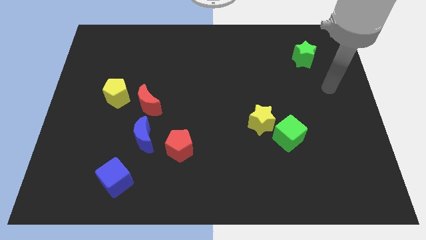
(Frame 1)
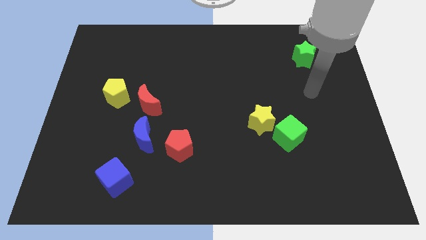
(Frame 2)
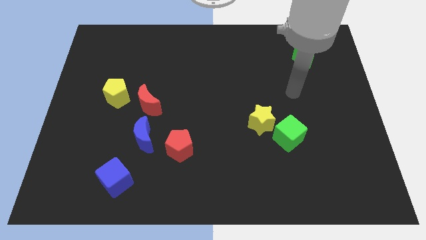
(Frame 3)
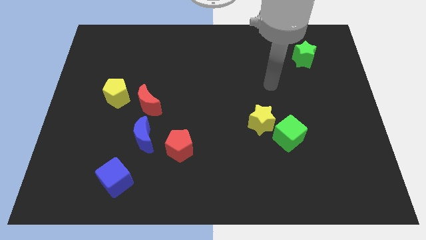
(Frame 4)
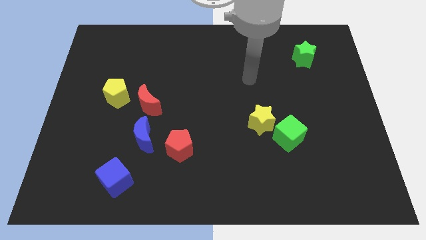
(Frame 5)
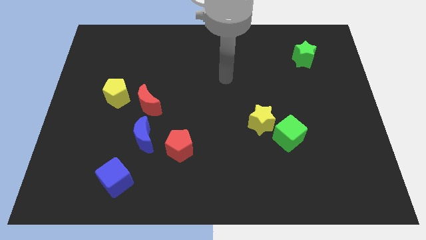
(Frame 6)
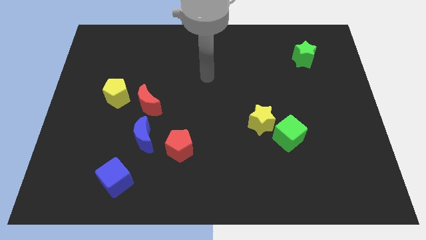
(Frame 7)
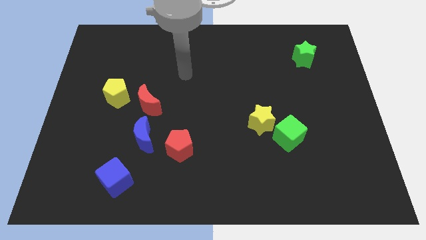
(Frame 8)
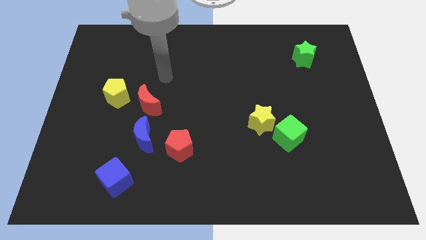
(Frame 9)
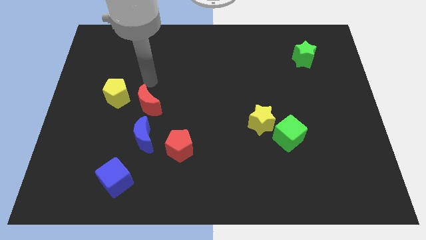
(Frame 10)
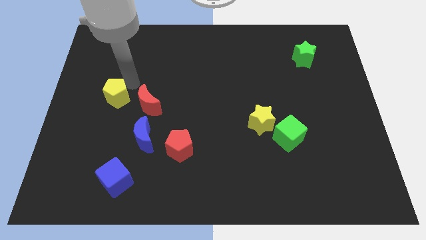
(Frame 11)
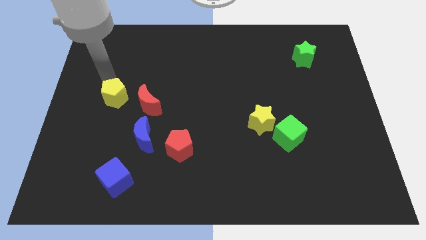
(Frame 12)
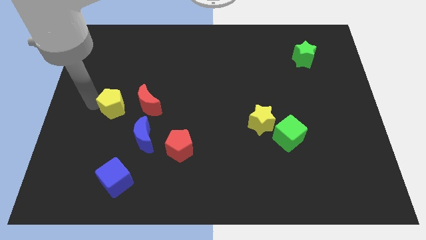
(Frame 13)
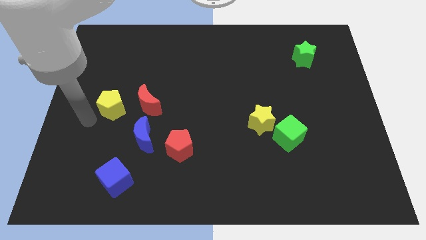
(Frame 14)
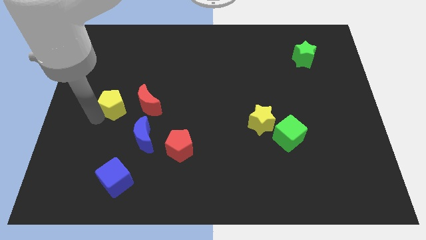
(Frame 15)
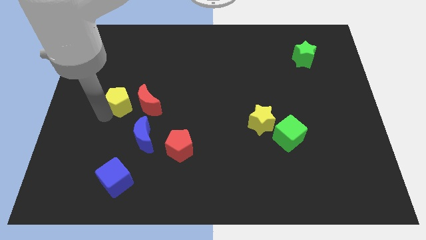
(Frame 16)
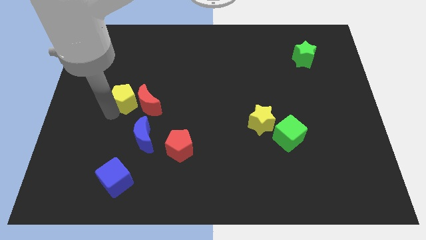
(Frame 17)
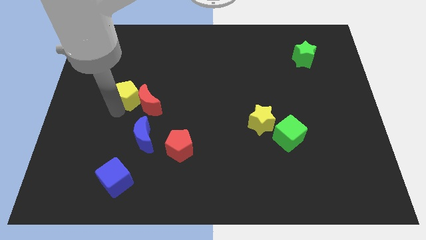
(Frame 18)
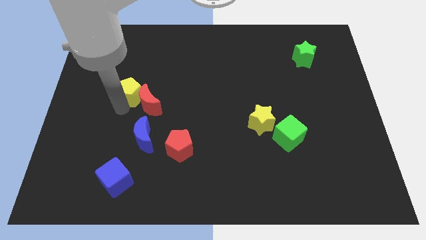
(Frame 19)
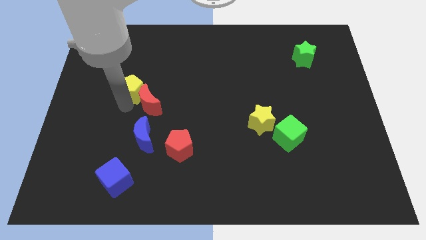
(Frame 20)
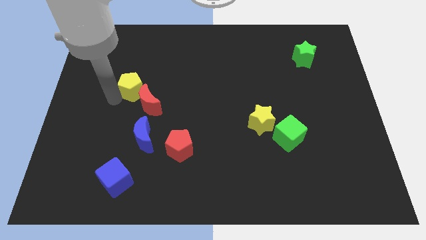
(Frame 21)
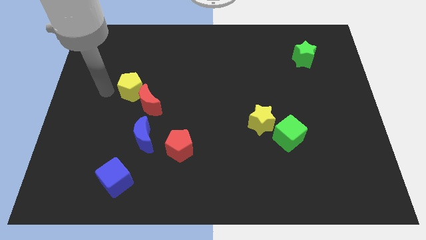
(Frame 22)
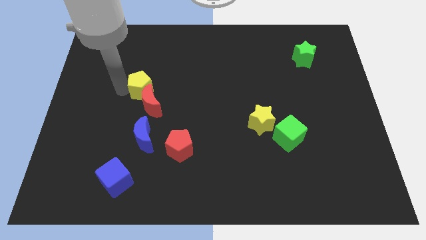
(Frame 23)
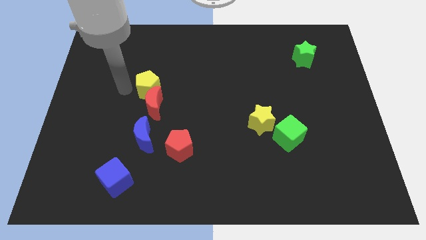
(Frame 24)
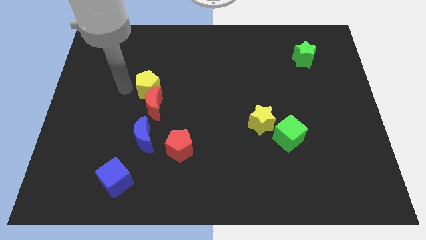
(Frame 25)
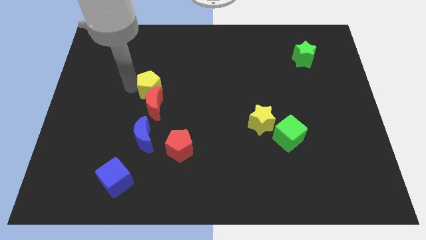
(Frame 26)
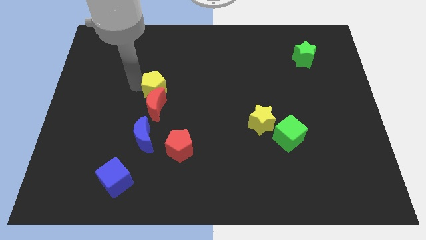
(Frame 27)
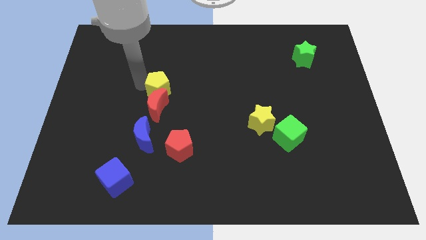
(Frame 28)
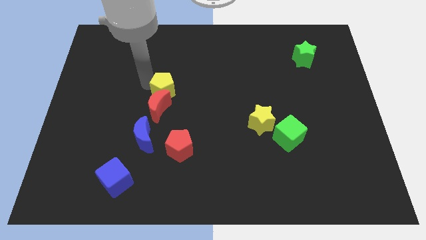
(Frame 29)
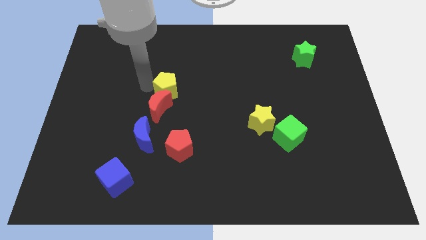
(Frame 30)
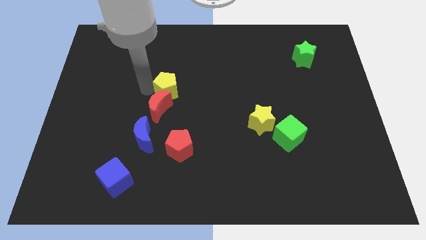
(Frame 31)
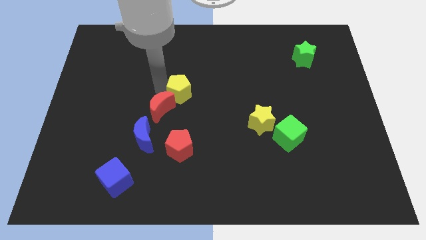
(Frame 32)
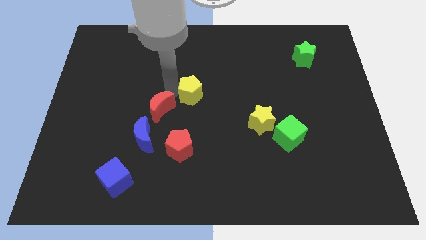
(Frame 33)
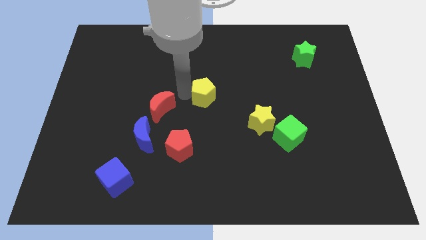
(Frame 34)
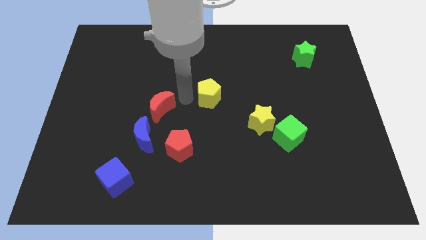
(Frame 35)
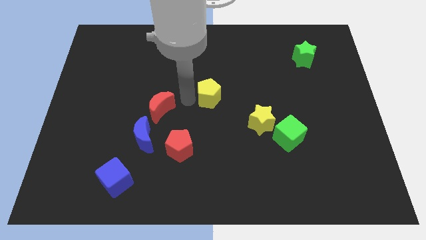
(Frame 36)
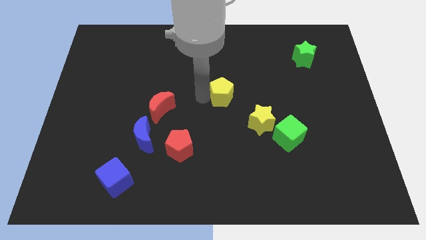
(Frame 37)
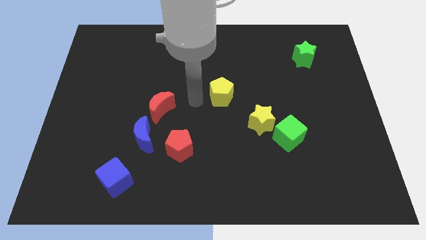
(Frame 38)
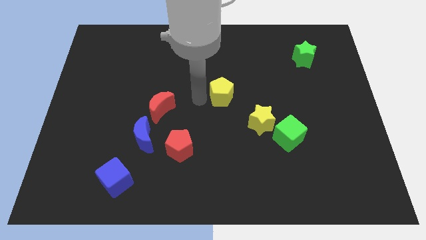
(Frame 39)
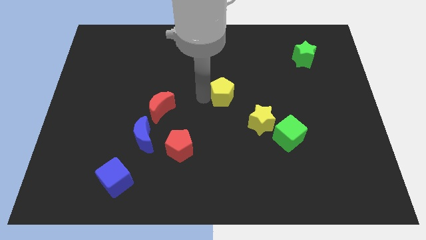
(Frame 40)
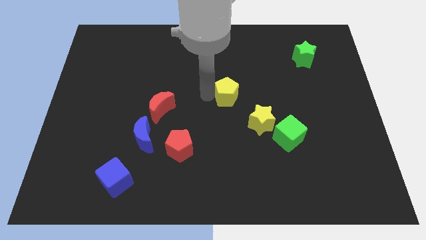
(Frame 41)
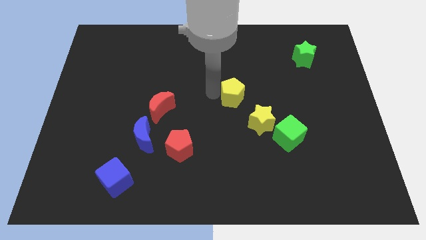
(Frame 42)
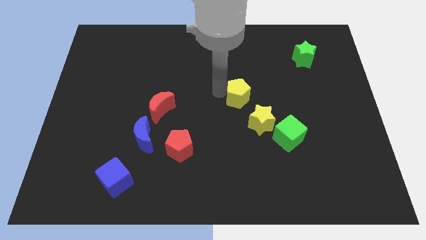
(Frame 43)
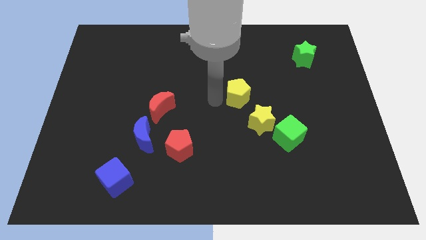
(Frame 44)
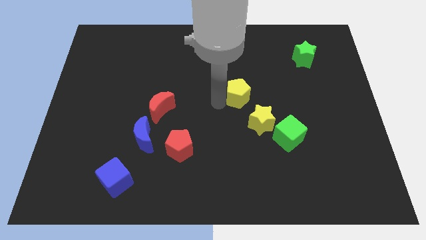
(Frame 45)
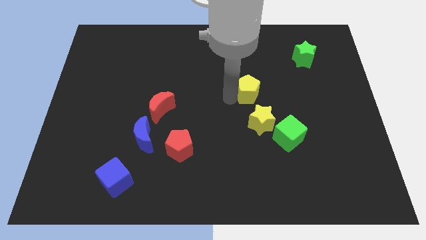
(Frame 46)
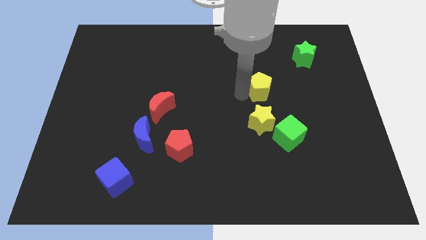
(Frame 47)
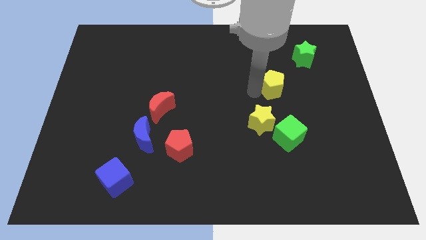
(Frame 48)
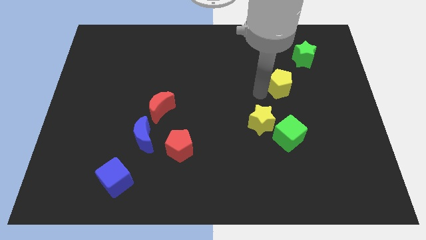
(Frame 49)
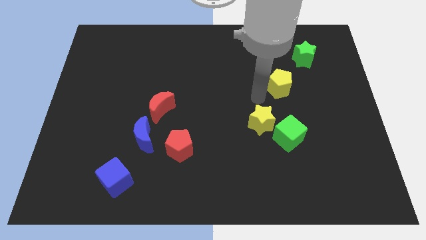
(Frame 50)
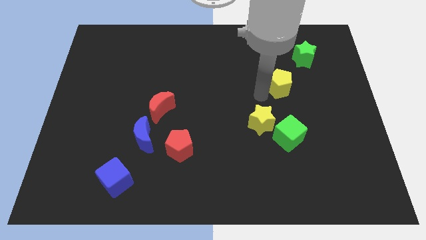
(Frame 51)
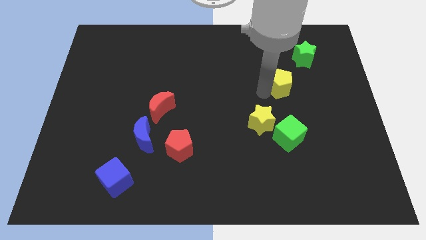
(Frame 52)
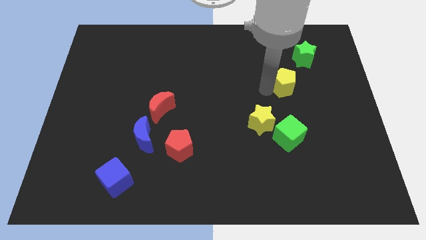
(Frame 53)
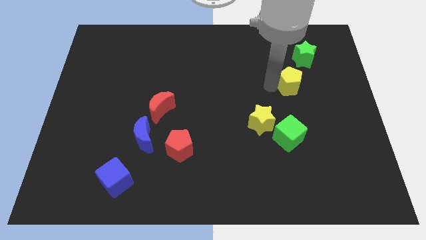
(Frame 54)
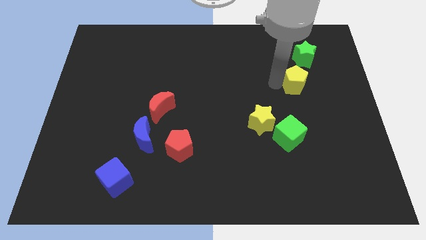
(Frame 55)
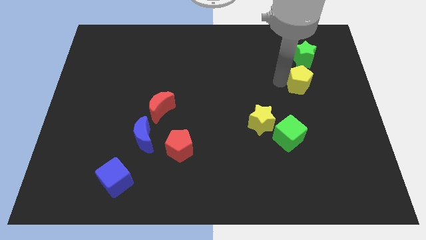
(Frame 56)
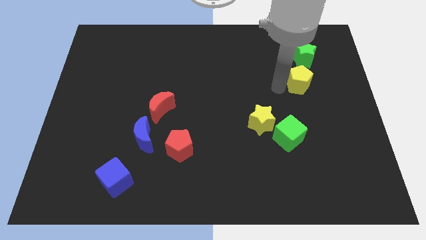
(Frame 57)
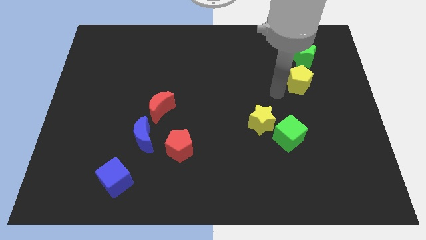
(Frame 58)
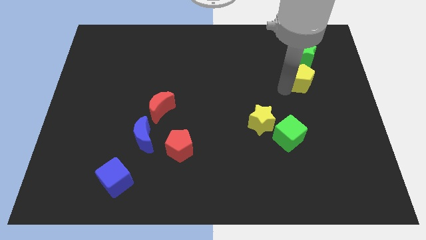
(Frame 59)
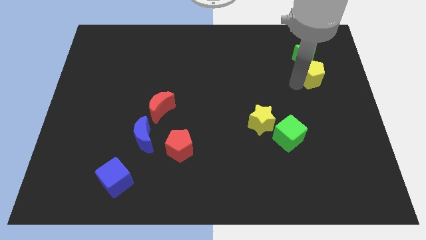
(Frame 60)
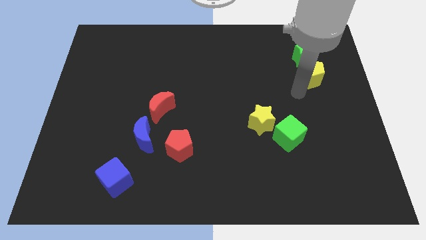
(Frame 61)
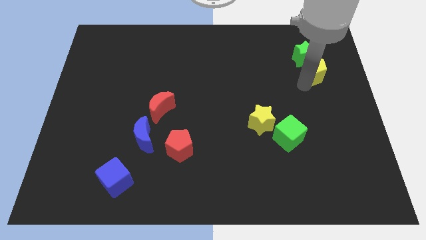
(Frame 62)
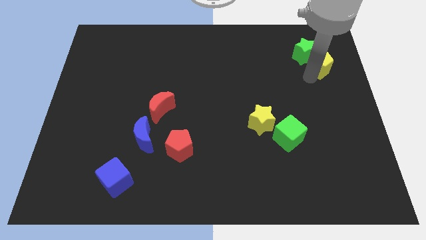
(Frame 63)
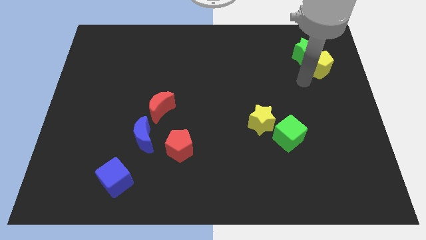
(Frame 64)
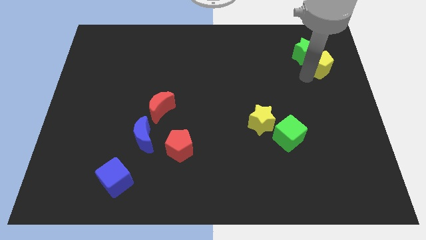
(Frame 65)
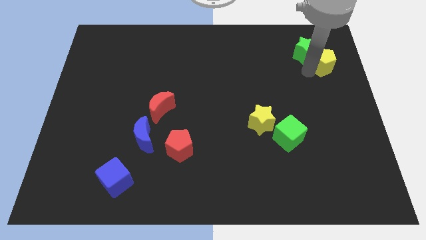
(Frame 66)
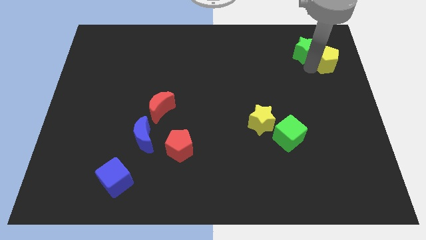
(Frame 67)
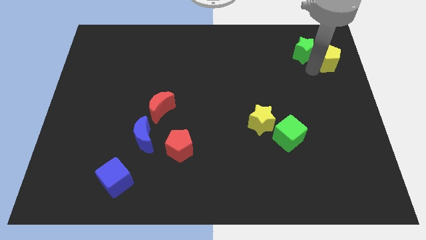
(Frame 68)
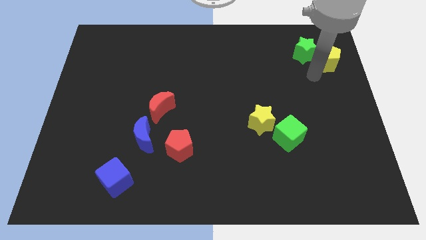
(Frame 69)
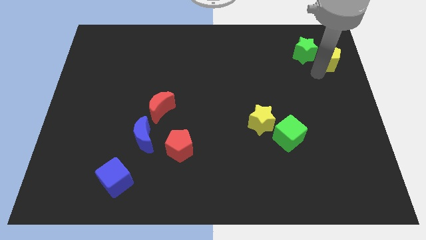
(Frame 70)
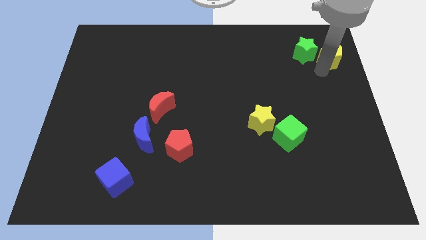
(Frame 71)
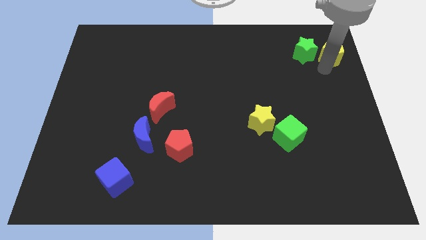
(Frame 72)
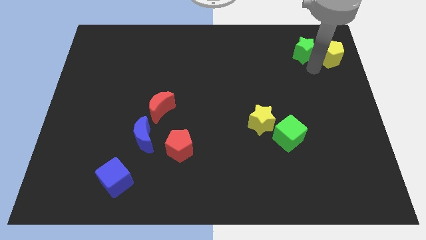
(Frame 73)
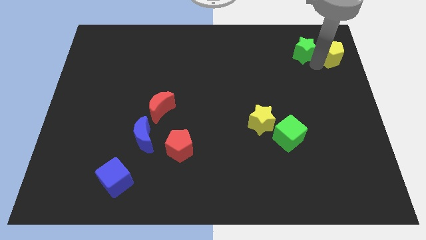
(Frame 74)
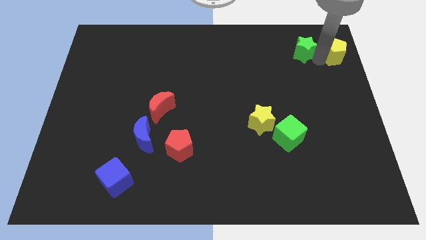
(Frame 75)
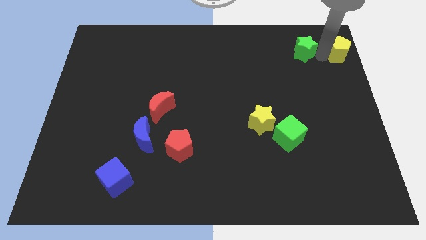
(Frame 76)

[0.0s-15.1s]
slide the yellow pentagon to the upper right corner
